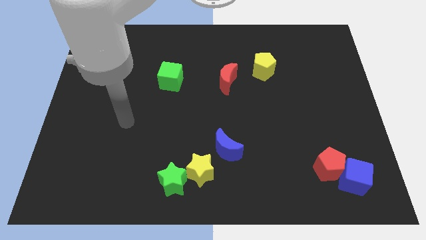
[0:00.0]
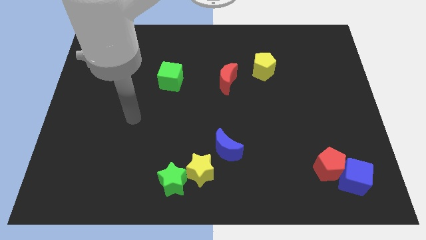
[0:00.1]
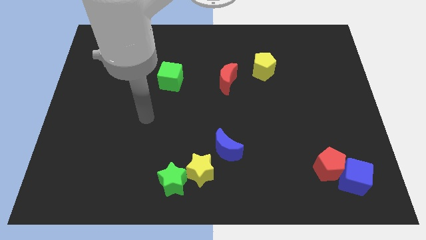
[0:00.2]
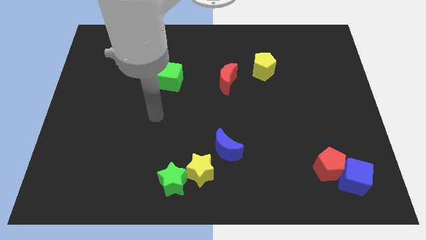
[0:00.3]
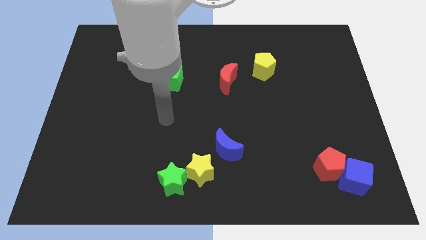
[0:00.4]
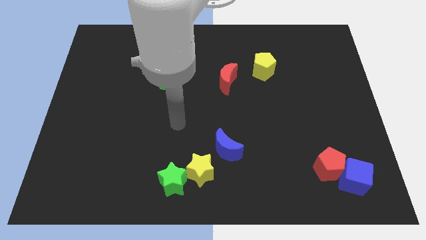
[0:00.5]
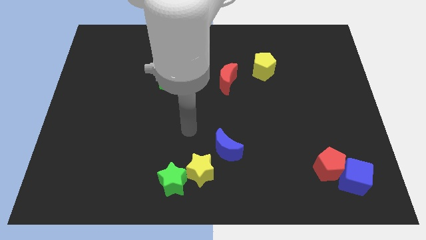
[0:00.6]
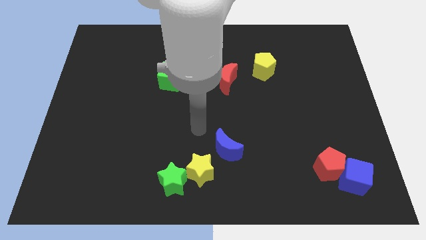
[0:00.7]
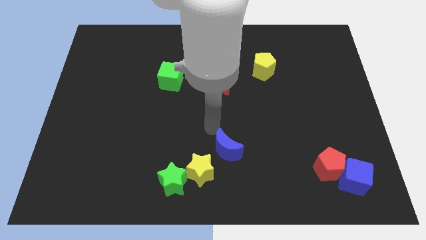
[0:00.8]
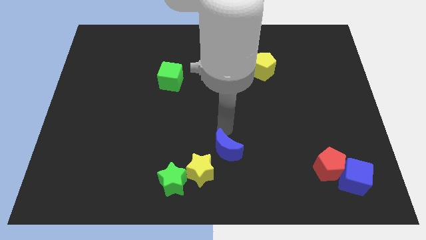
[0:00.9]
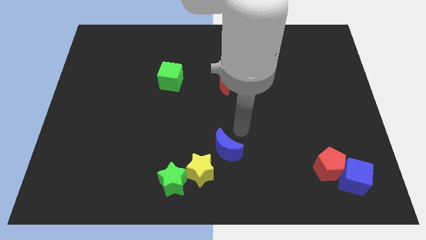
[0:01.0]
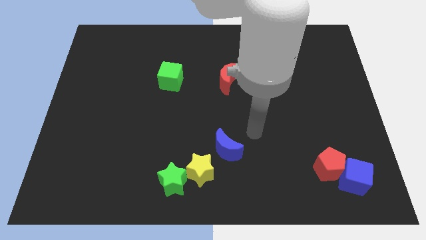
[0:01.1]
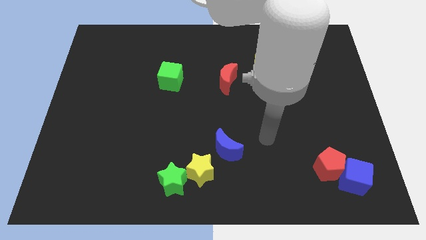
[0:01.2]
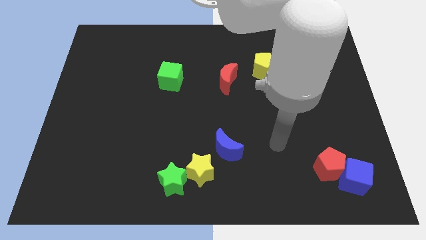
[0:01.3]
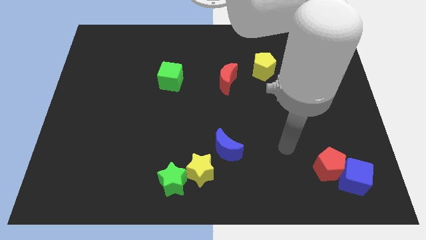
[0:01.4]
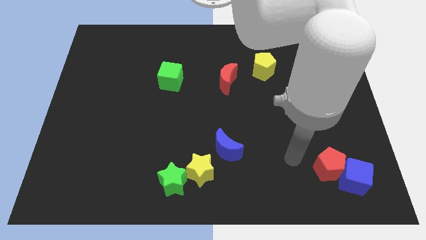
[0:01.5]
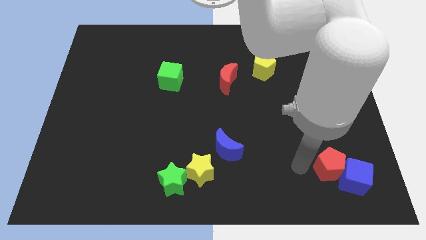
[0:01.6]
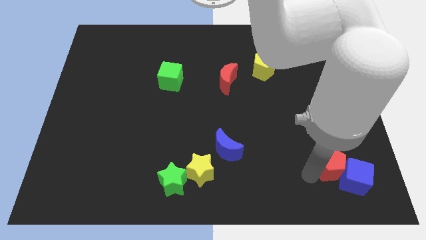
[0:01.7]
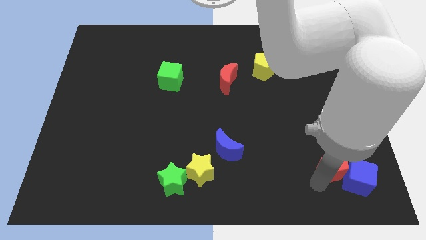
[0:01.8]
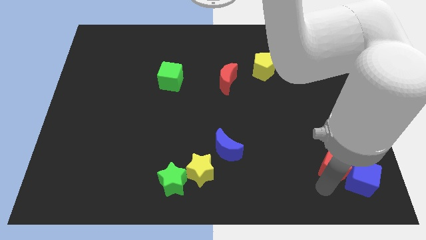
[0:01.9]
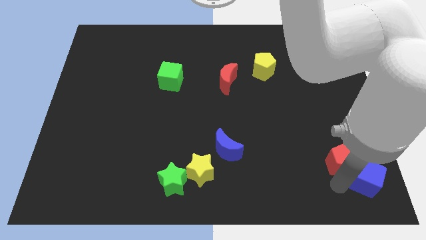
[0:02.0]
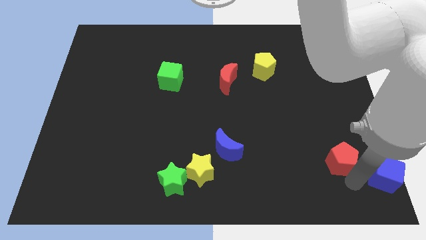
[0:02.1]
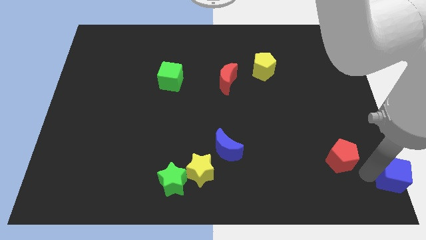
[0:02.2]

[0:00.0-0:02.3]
move the red pentagon away from the blue cube

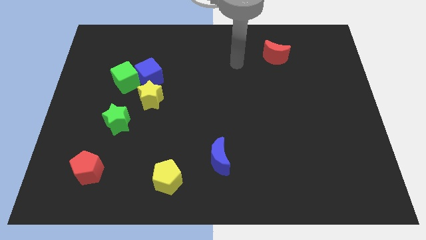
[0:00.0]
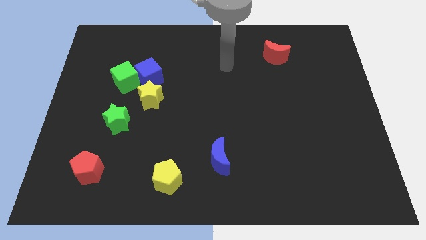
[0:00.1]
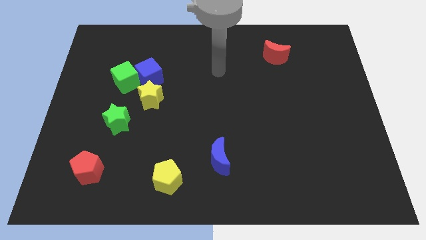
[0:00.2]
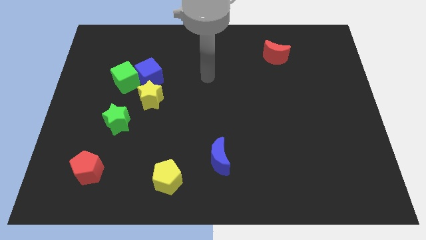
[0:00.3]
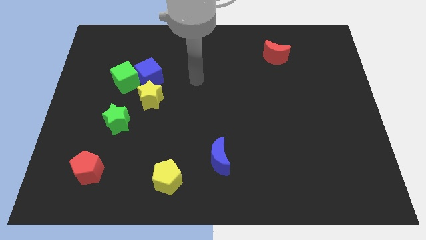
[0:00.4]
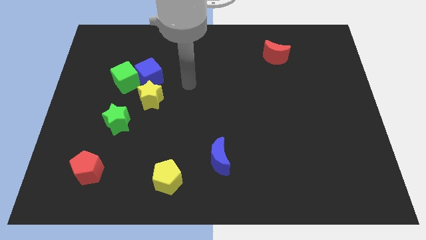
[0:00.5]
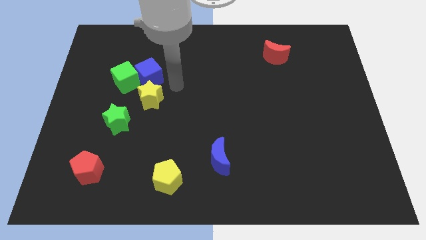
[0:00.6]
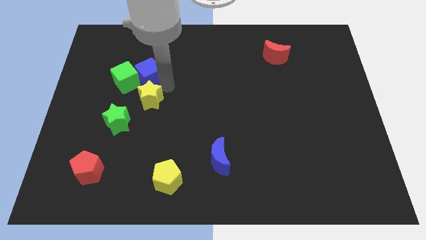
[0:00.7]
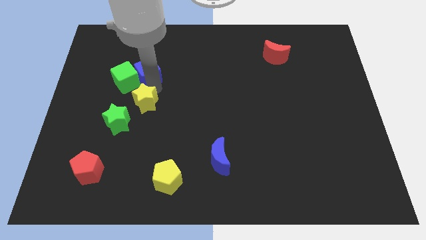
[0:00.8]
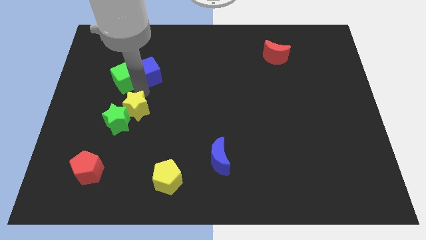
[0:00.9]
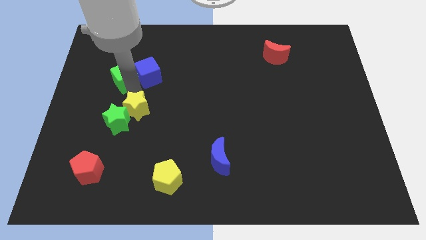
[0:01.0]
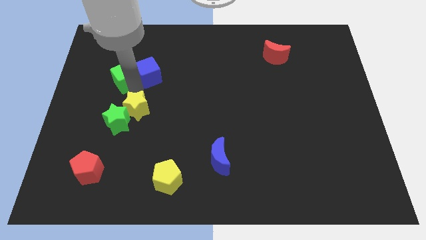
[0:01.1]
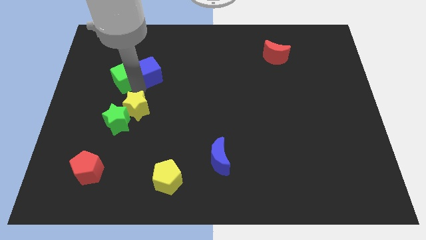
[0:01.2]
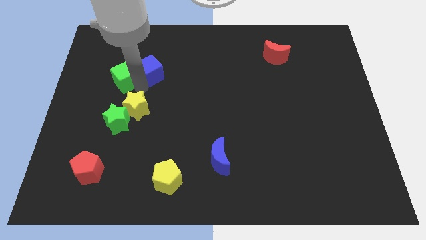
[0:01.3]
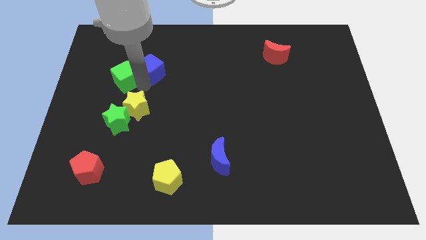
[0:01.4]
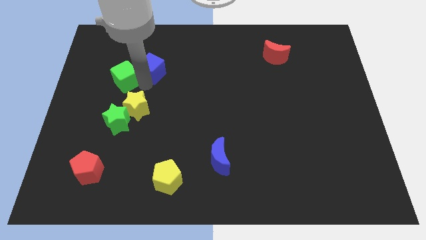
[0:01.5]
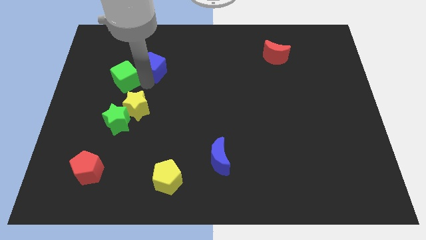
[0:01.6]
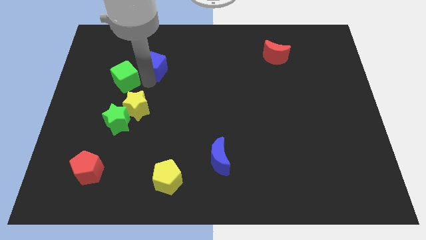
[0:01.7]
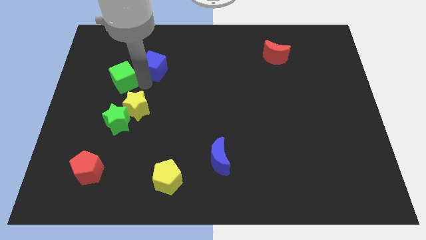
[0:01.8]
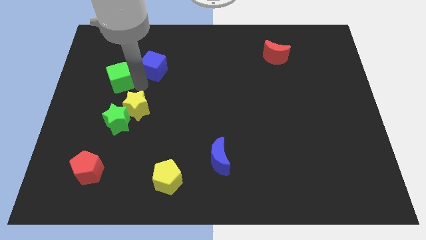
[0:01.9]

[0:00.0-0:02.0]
separate the blue cube from the green cube and yellow star

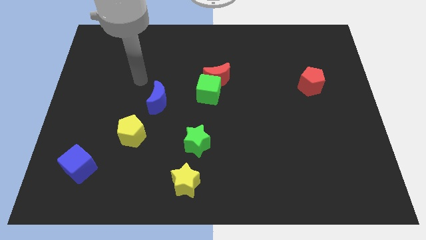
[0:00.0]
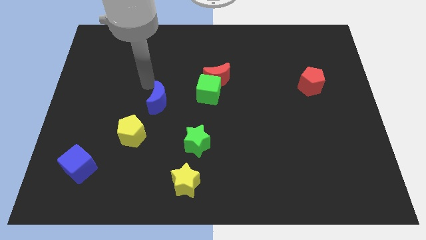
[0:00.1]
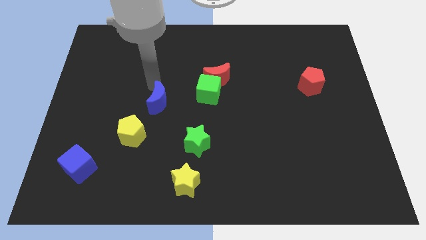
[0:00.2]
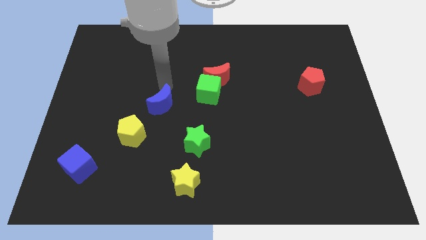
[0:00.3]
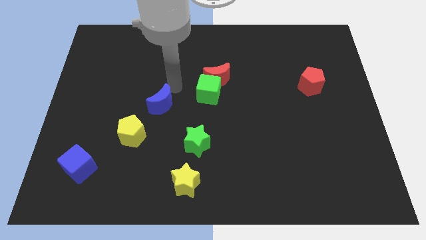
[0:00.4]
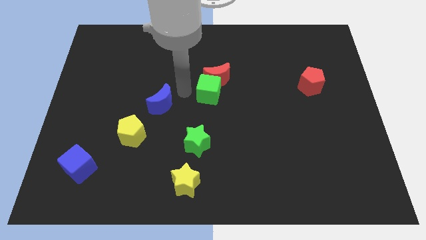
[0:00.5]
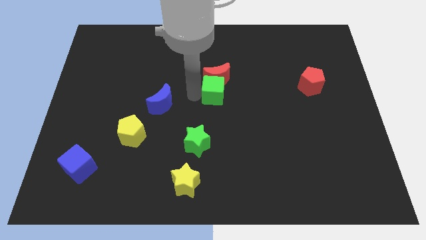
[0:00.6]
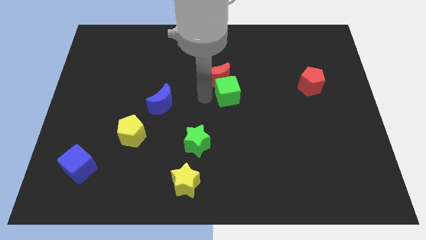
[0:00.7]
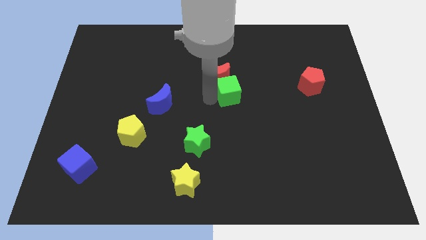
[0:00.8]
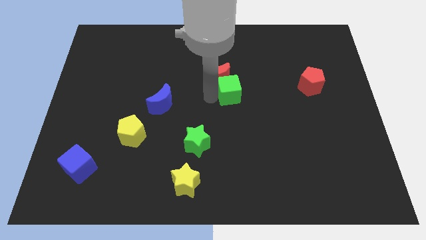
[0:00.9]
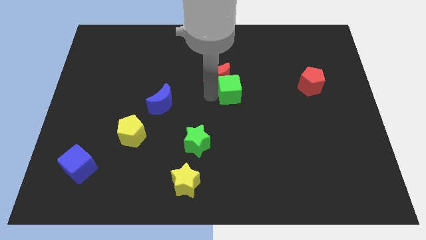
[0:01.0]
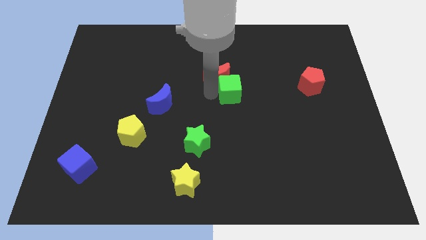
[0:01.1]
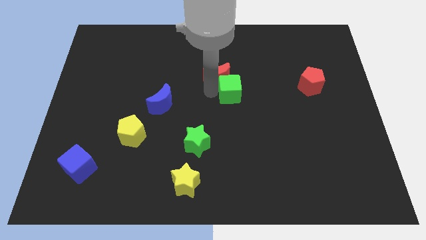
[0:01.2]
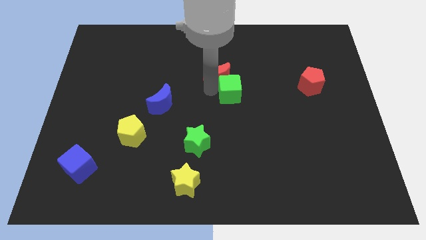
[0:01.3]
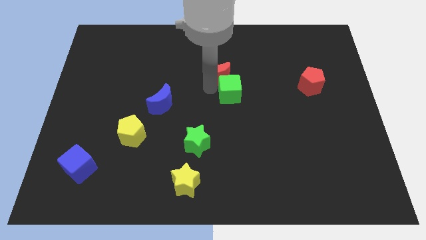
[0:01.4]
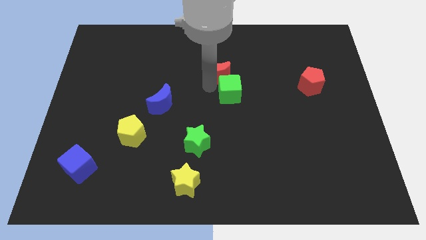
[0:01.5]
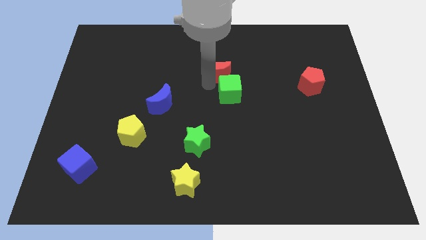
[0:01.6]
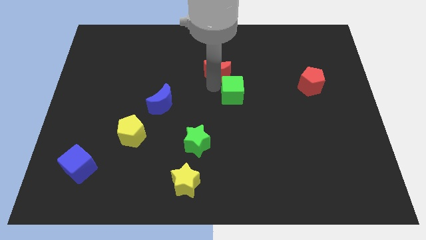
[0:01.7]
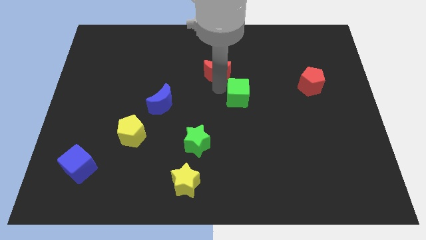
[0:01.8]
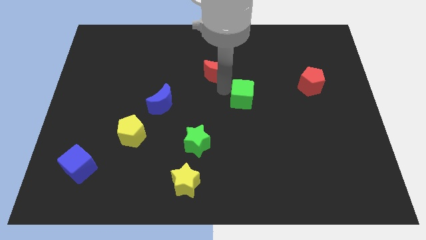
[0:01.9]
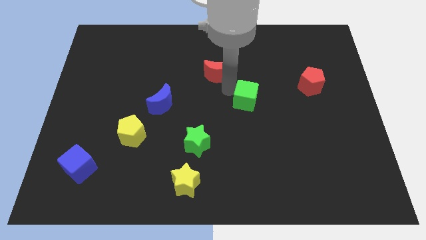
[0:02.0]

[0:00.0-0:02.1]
separate the red moon from the green cube

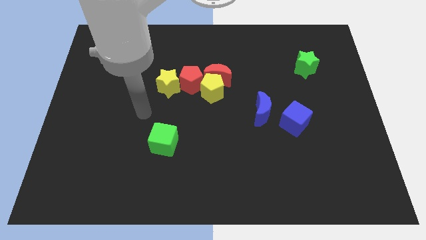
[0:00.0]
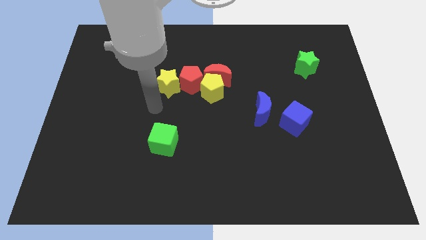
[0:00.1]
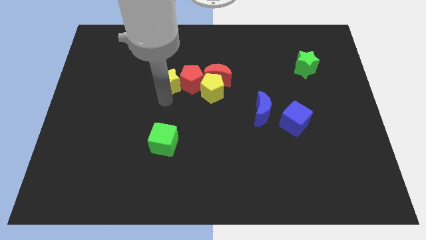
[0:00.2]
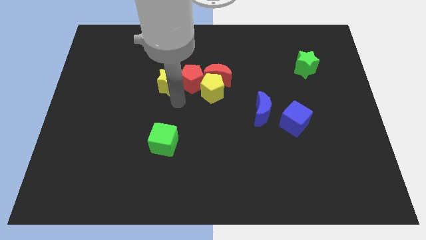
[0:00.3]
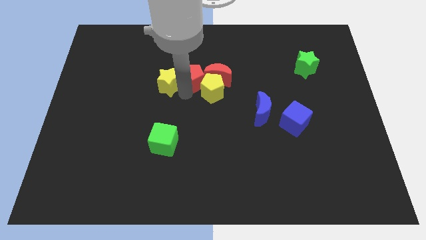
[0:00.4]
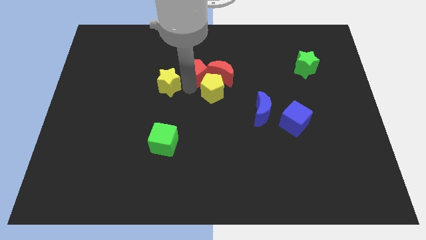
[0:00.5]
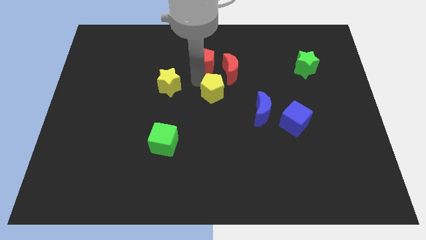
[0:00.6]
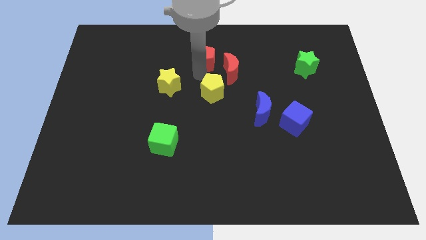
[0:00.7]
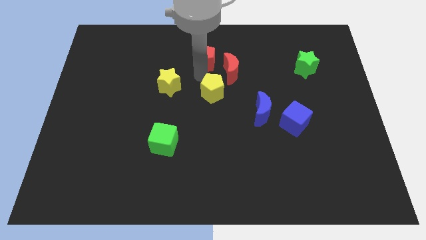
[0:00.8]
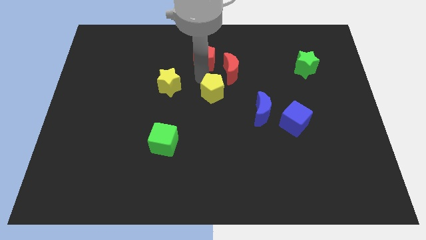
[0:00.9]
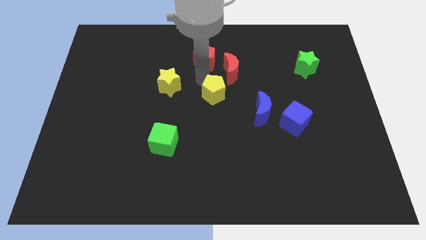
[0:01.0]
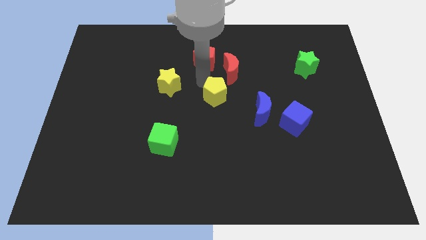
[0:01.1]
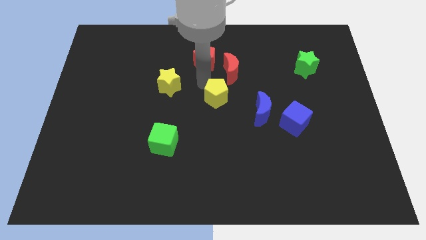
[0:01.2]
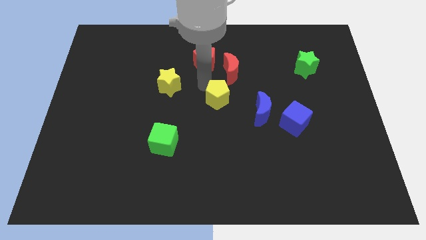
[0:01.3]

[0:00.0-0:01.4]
separate the yellow pentagon from the red moon and red pentagon

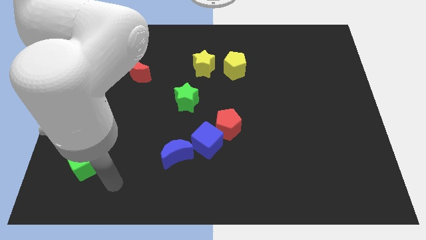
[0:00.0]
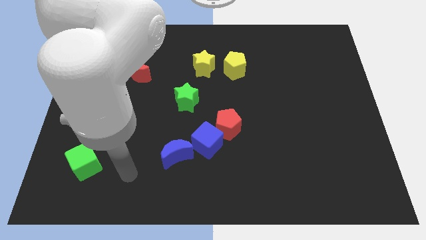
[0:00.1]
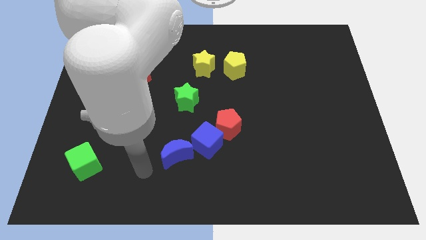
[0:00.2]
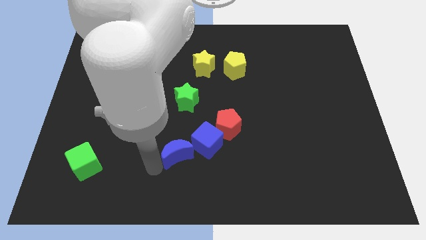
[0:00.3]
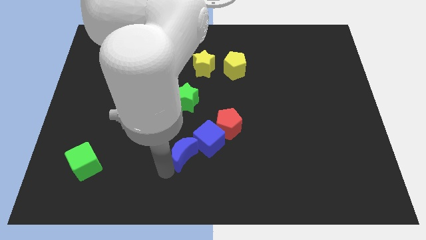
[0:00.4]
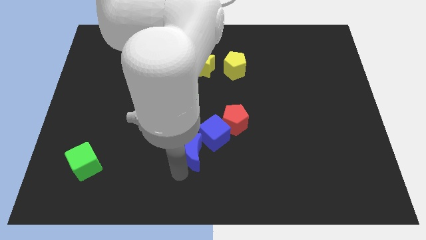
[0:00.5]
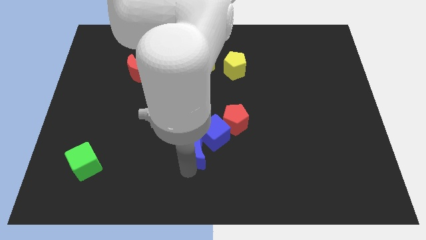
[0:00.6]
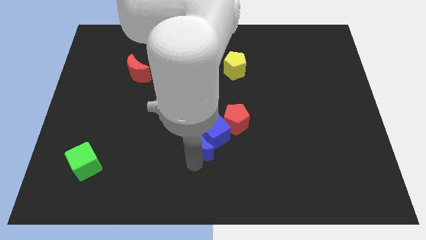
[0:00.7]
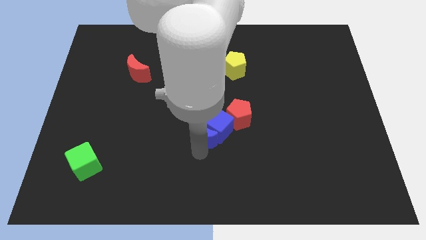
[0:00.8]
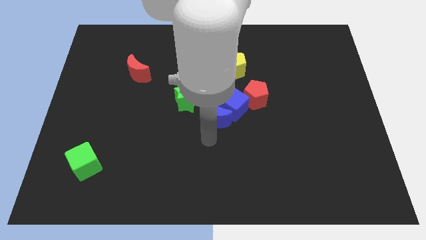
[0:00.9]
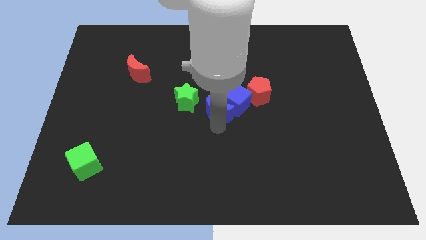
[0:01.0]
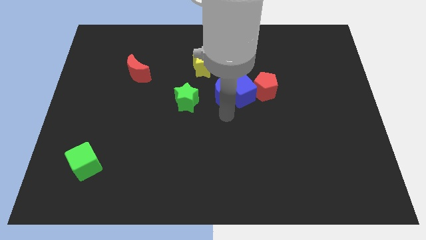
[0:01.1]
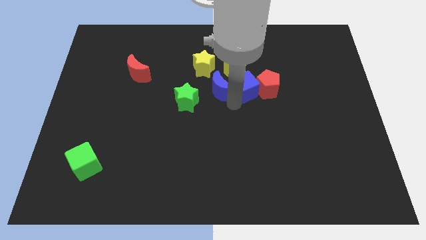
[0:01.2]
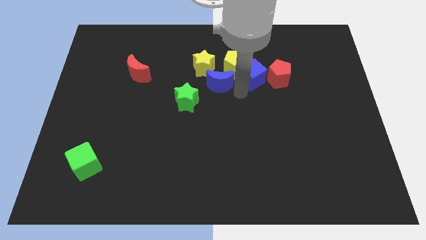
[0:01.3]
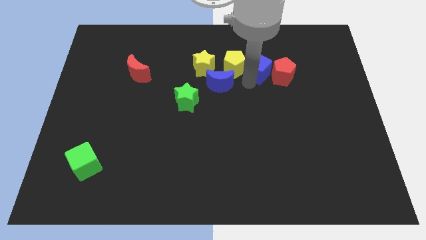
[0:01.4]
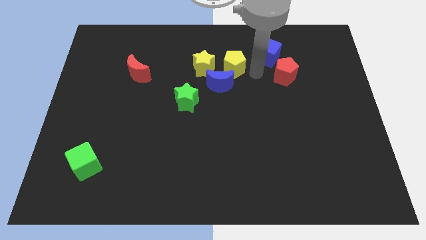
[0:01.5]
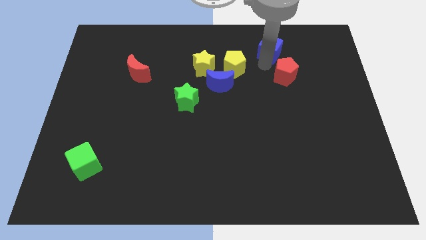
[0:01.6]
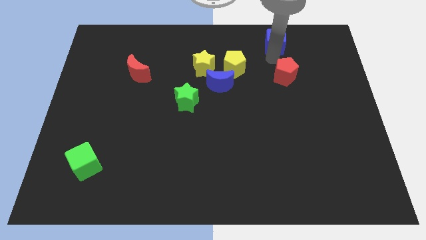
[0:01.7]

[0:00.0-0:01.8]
separate the red pentagon from the blue cube
